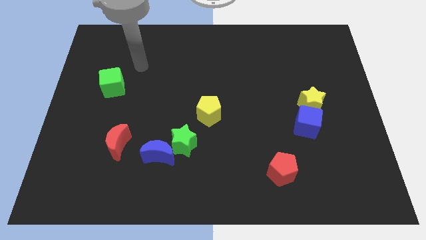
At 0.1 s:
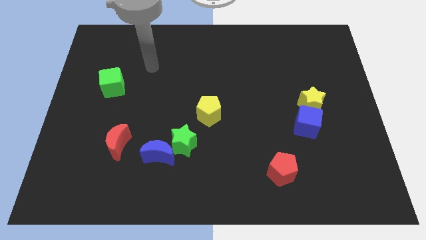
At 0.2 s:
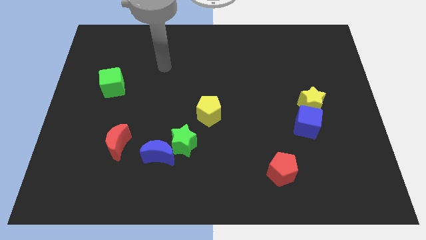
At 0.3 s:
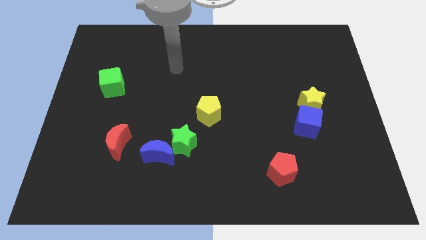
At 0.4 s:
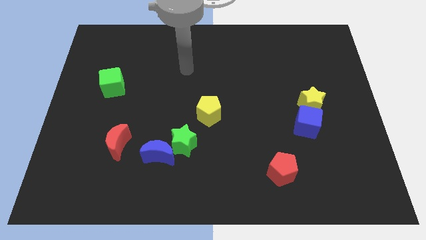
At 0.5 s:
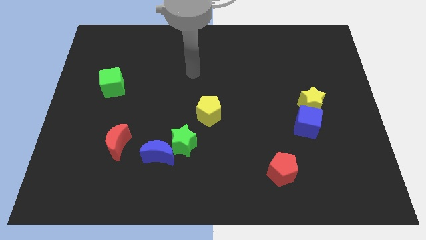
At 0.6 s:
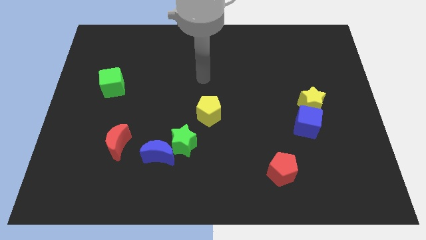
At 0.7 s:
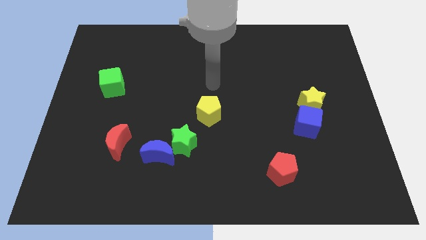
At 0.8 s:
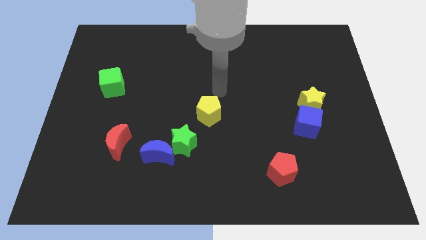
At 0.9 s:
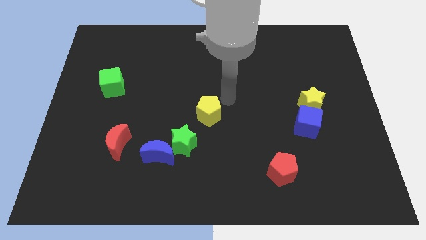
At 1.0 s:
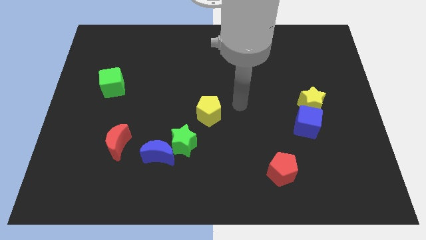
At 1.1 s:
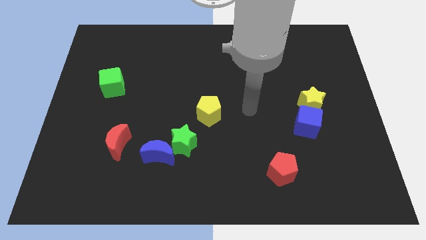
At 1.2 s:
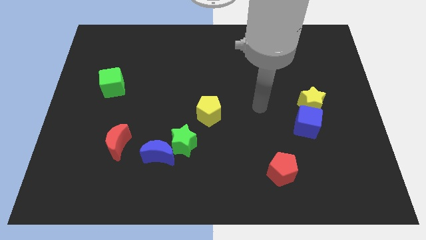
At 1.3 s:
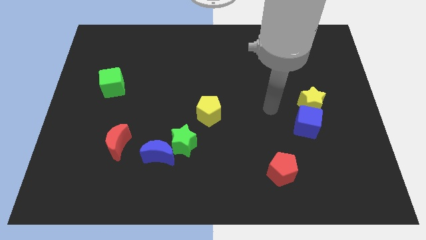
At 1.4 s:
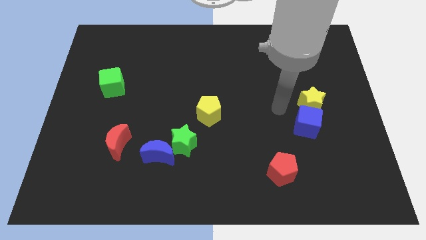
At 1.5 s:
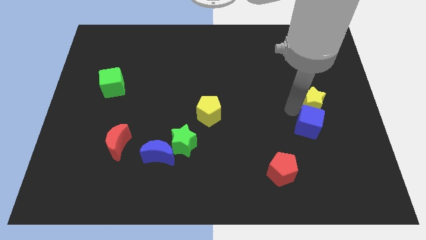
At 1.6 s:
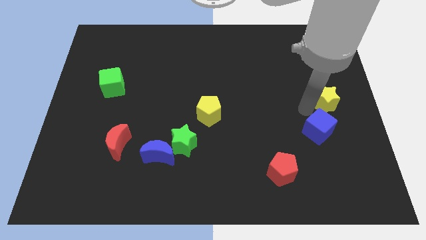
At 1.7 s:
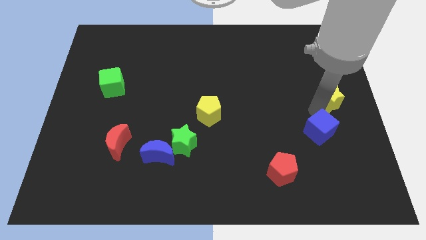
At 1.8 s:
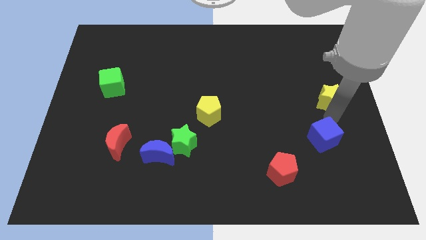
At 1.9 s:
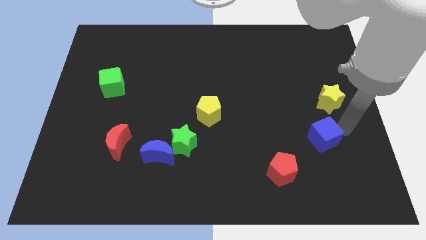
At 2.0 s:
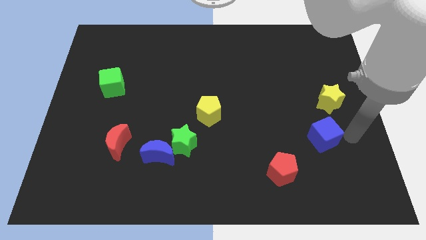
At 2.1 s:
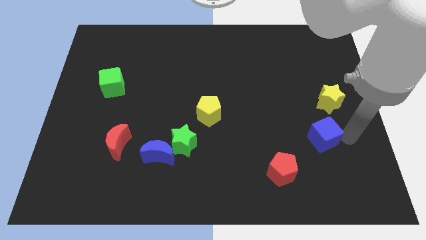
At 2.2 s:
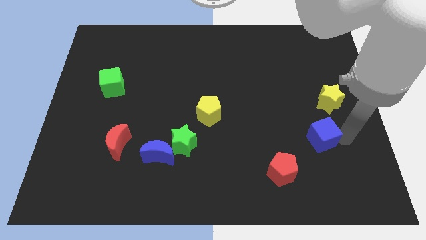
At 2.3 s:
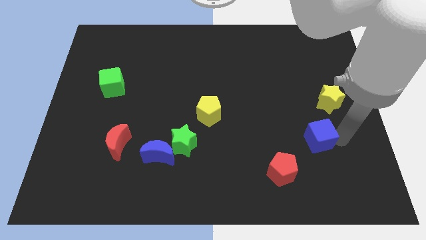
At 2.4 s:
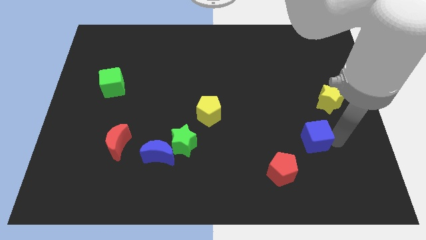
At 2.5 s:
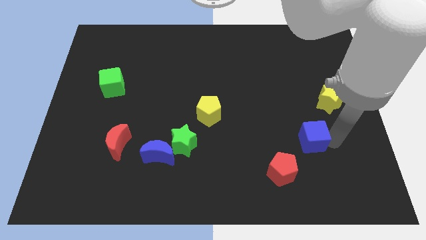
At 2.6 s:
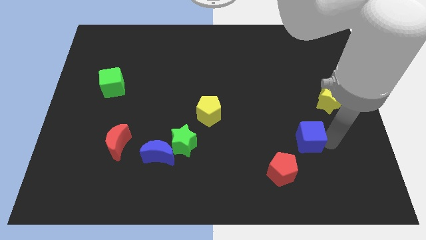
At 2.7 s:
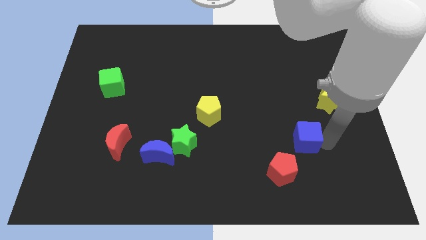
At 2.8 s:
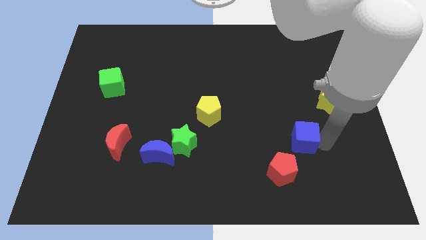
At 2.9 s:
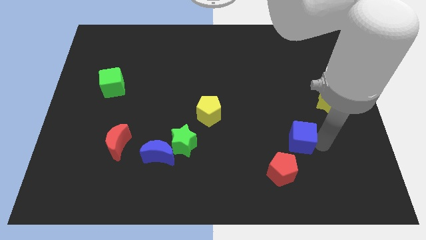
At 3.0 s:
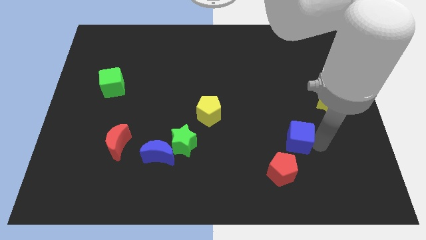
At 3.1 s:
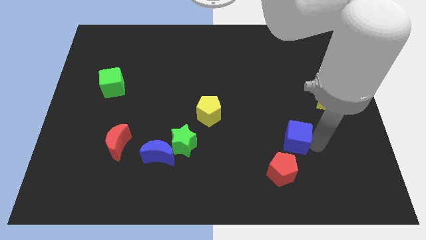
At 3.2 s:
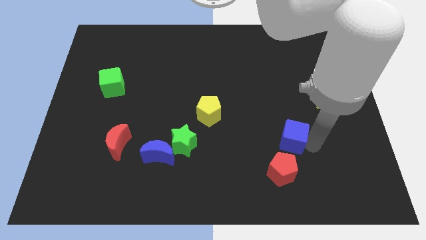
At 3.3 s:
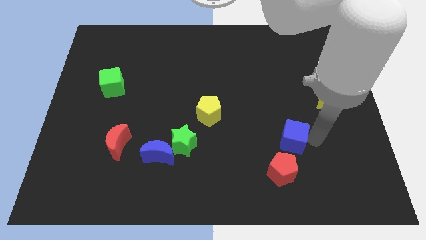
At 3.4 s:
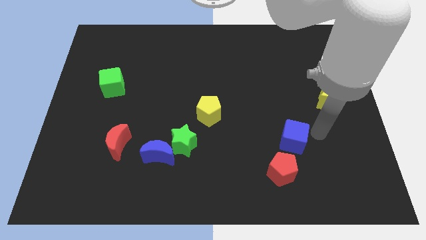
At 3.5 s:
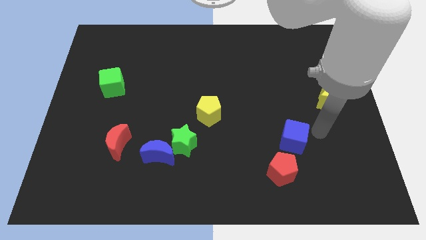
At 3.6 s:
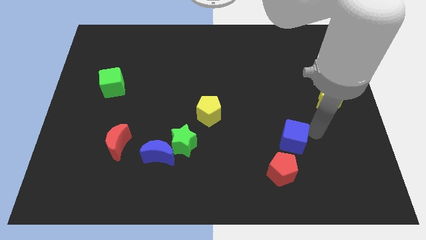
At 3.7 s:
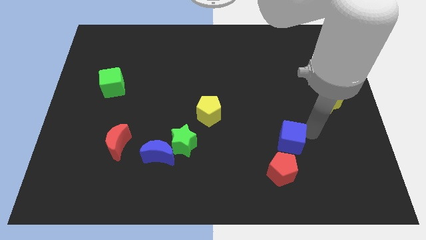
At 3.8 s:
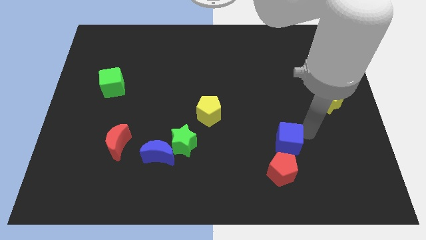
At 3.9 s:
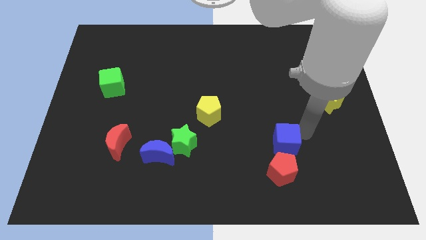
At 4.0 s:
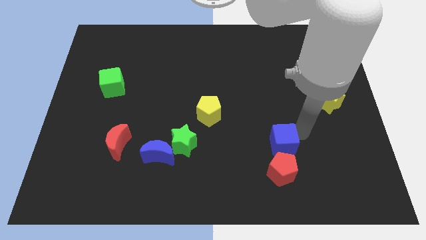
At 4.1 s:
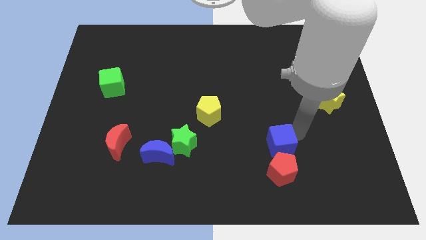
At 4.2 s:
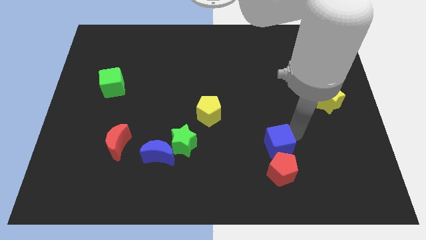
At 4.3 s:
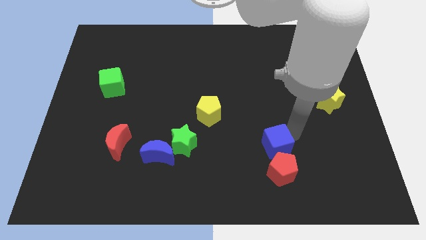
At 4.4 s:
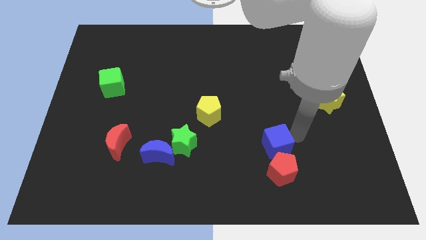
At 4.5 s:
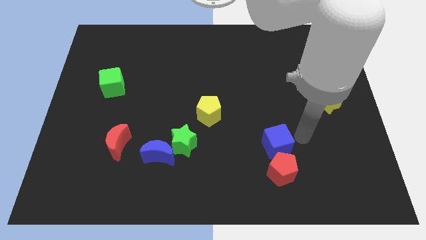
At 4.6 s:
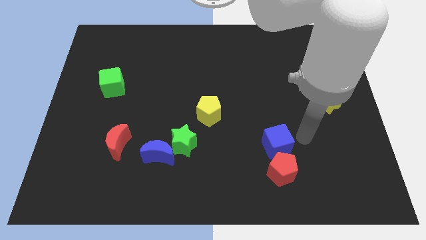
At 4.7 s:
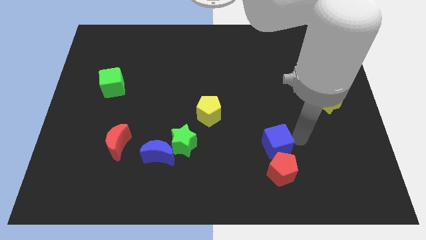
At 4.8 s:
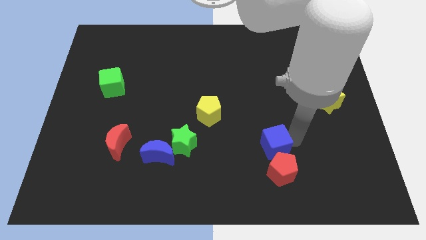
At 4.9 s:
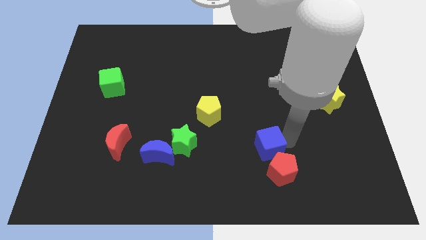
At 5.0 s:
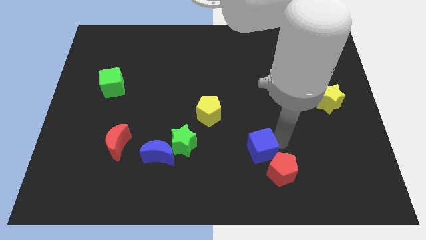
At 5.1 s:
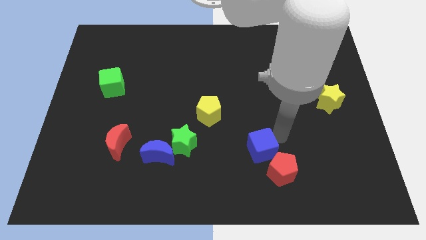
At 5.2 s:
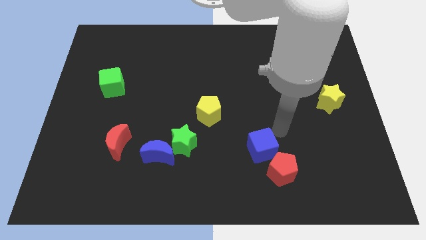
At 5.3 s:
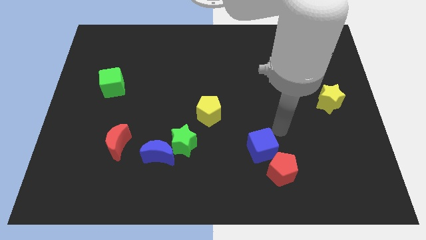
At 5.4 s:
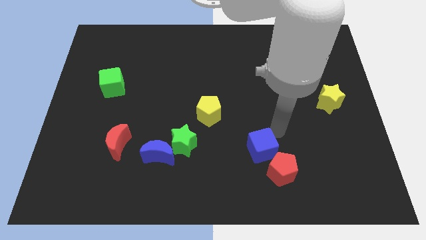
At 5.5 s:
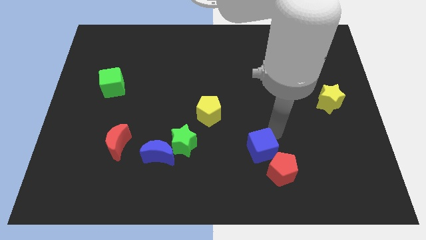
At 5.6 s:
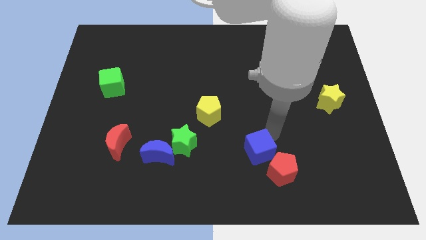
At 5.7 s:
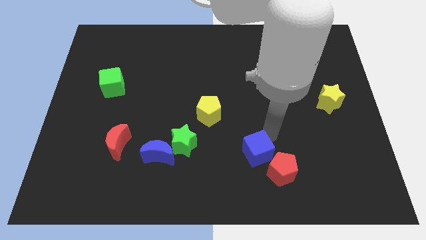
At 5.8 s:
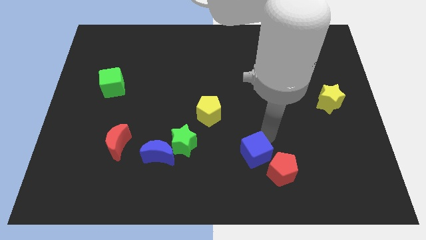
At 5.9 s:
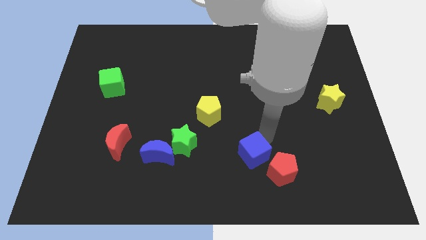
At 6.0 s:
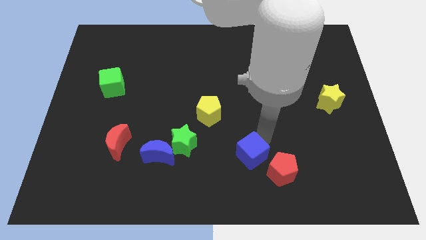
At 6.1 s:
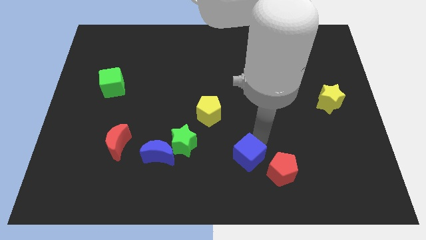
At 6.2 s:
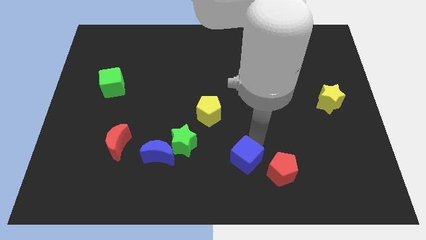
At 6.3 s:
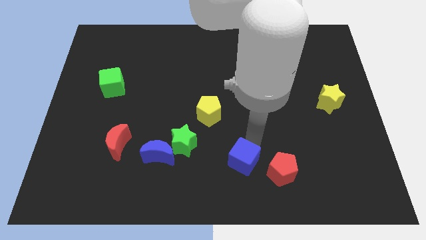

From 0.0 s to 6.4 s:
put the blue cube to the bottom side
